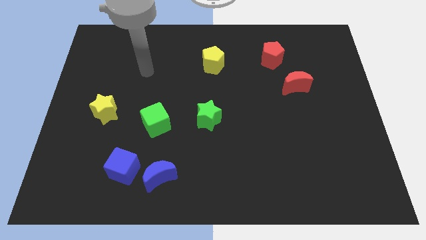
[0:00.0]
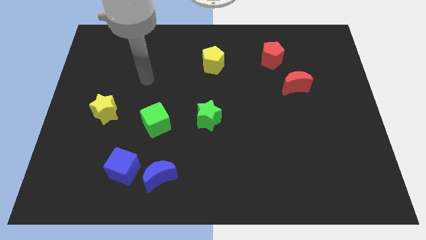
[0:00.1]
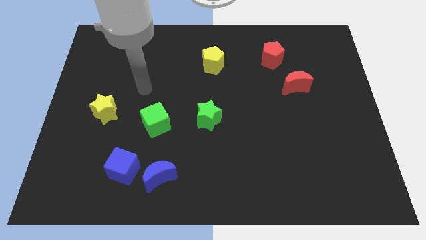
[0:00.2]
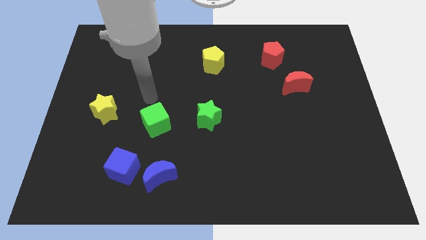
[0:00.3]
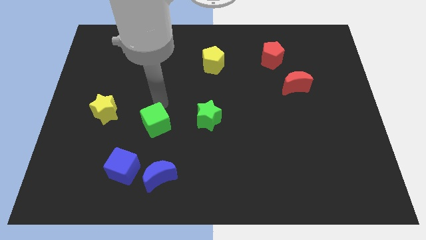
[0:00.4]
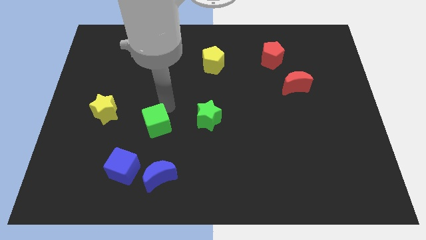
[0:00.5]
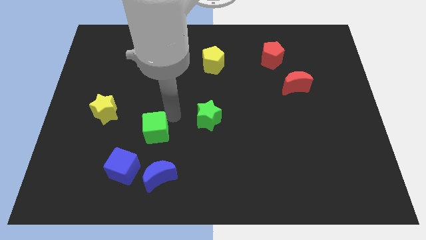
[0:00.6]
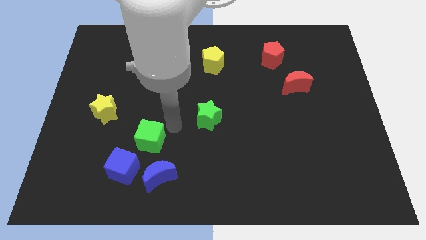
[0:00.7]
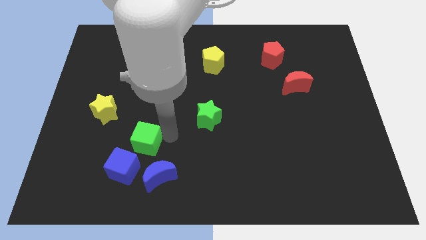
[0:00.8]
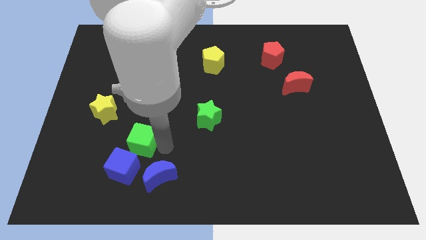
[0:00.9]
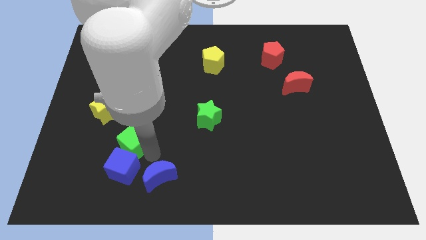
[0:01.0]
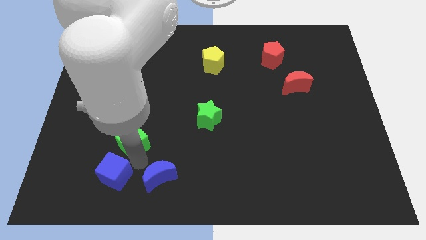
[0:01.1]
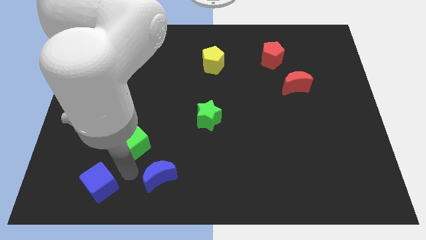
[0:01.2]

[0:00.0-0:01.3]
move the blue moon away from the blue cube

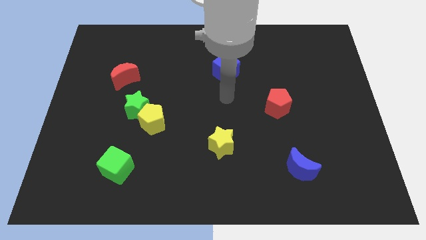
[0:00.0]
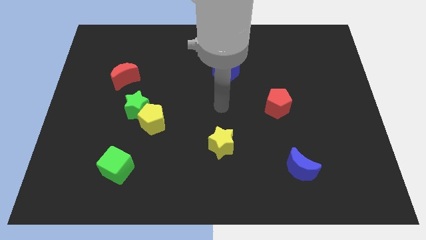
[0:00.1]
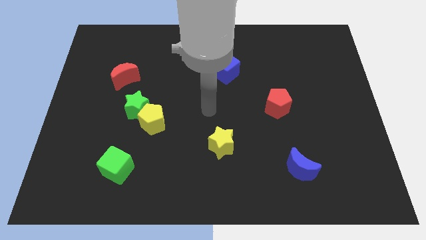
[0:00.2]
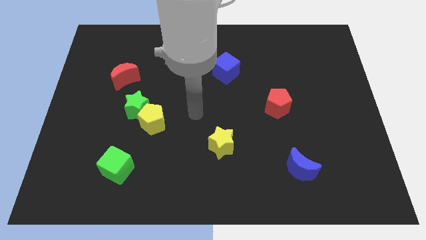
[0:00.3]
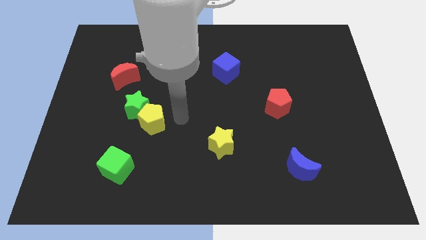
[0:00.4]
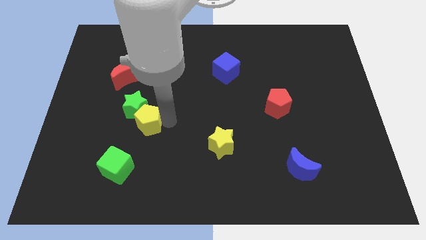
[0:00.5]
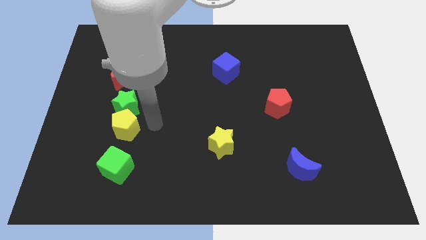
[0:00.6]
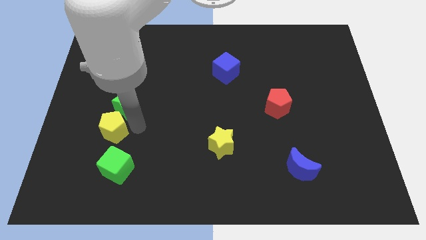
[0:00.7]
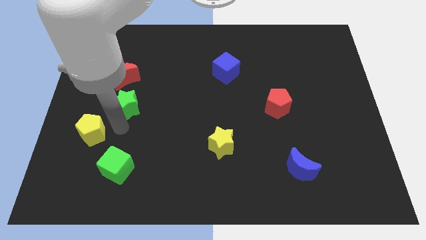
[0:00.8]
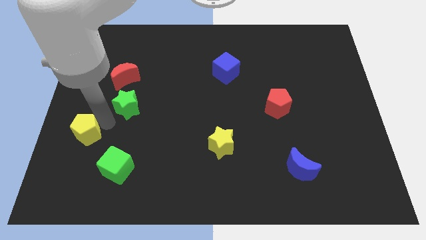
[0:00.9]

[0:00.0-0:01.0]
move the green star away from the yellow pentagon

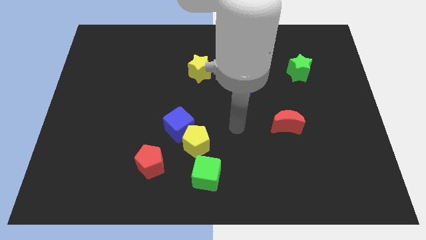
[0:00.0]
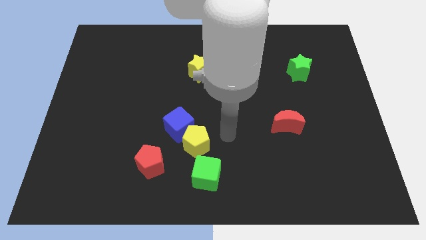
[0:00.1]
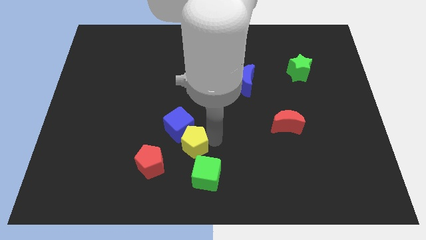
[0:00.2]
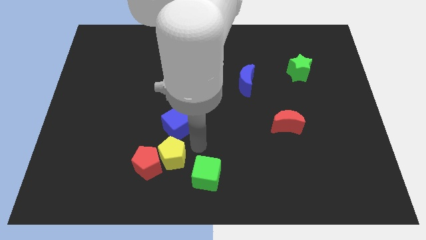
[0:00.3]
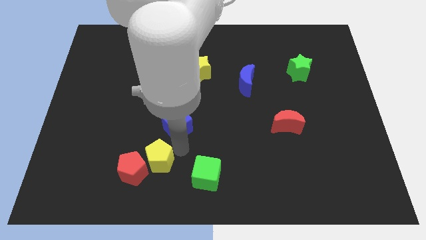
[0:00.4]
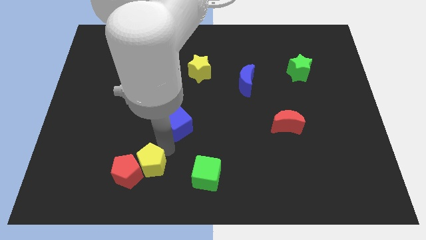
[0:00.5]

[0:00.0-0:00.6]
move the blue cube away from the yellow pentagon

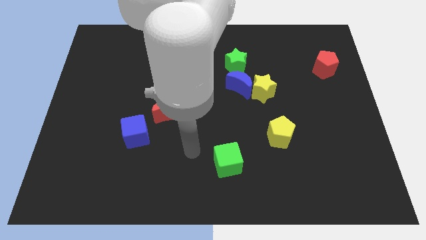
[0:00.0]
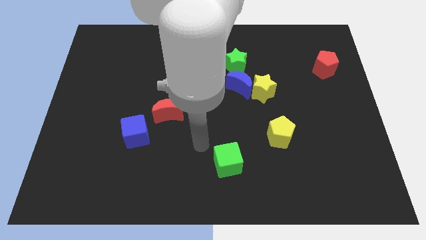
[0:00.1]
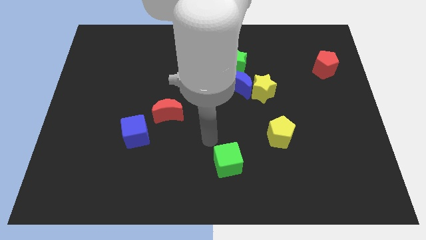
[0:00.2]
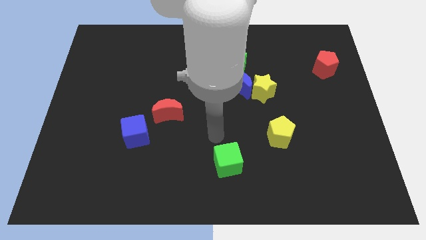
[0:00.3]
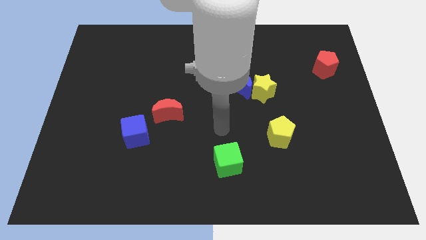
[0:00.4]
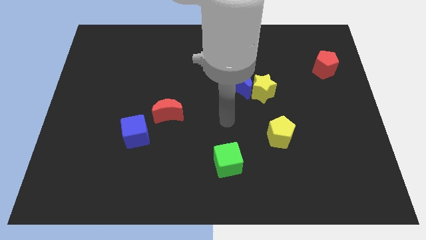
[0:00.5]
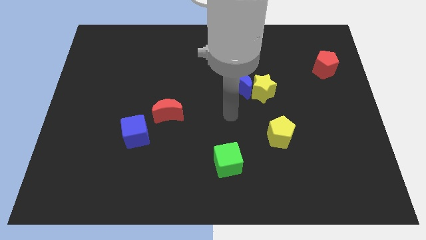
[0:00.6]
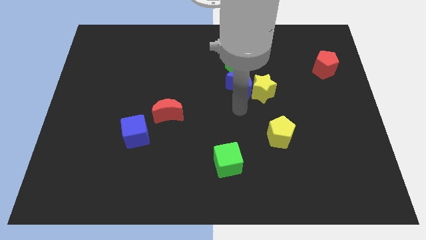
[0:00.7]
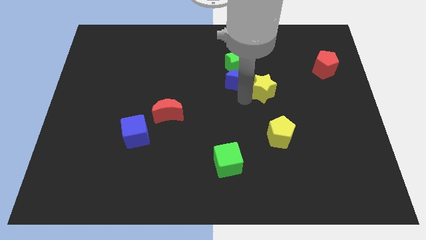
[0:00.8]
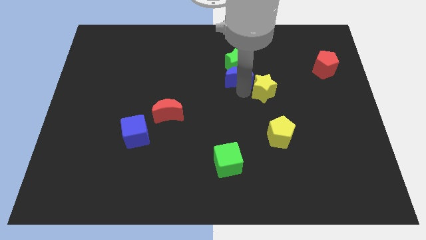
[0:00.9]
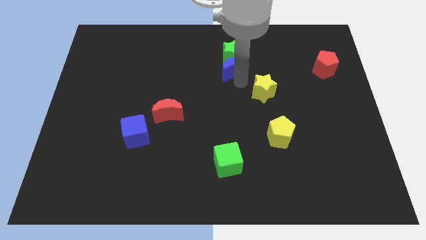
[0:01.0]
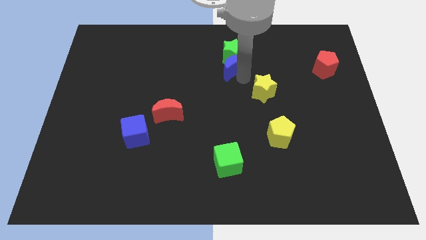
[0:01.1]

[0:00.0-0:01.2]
pull the yellow star apart from the blue moon

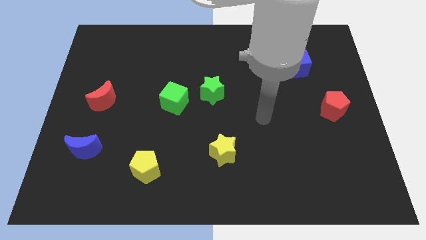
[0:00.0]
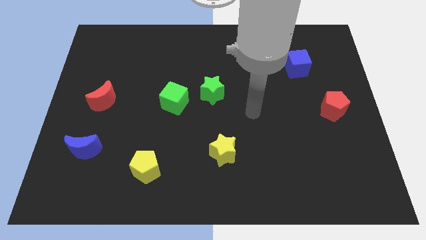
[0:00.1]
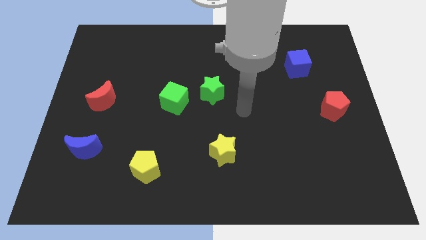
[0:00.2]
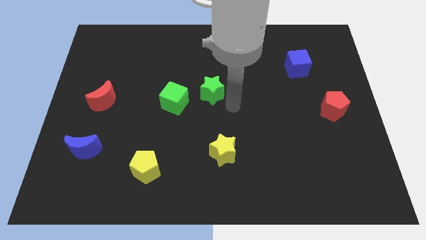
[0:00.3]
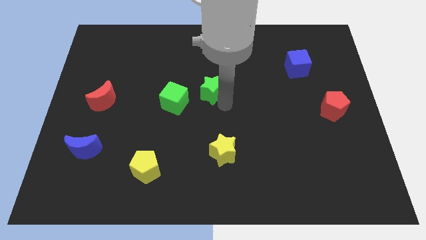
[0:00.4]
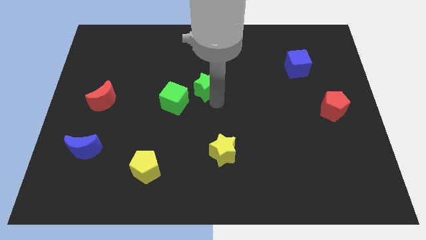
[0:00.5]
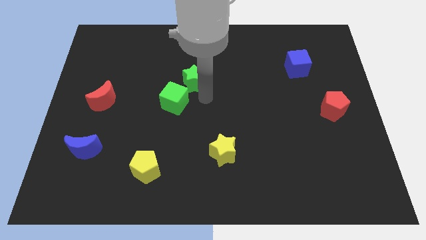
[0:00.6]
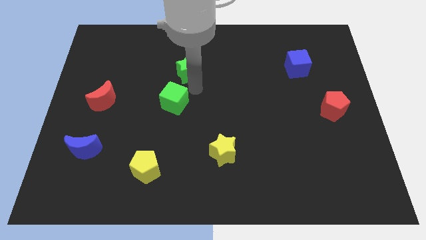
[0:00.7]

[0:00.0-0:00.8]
pull the green cube apart from the green star

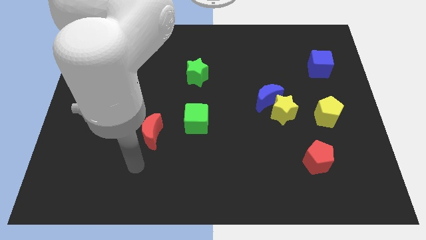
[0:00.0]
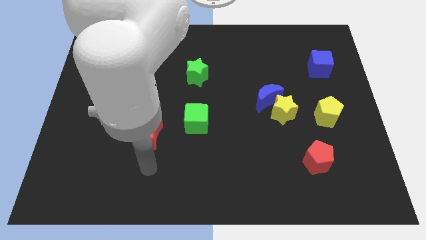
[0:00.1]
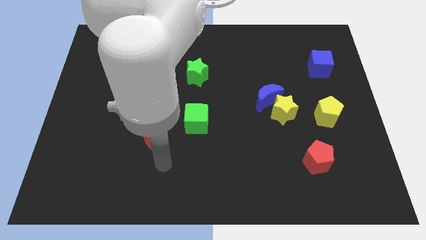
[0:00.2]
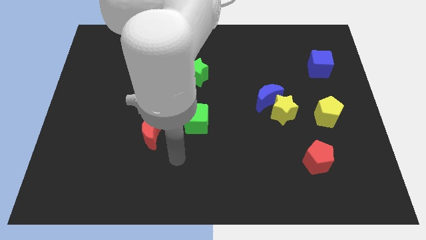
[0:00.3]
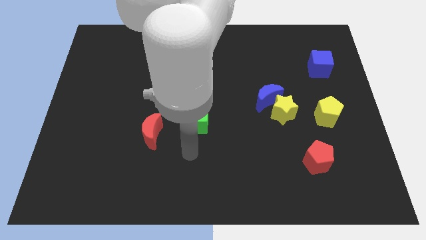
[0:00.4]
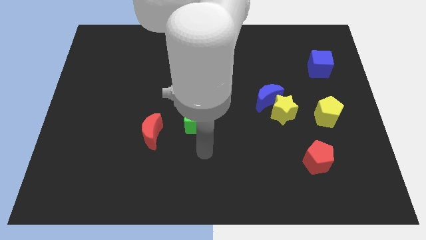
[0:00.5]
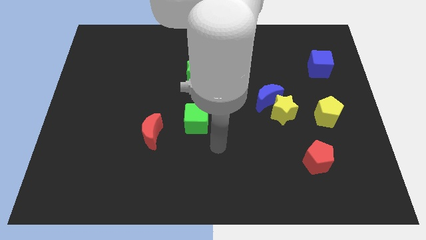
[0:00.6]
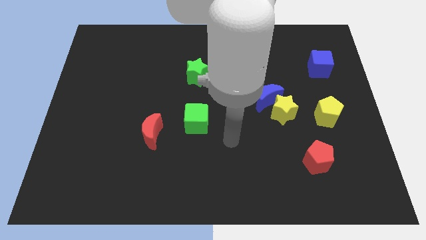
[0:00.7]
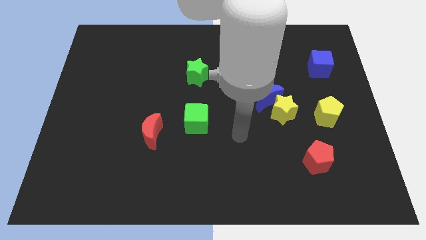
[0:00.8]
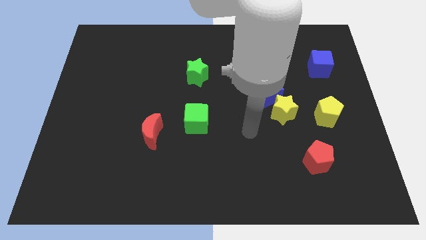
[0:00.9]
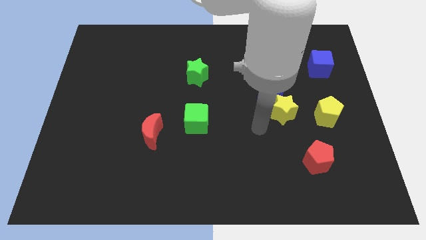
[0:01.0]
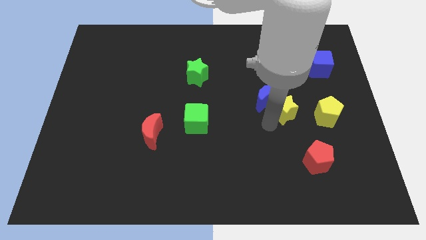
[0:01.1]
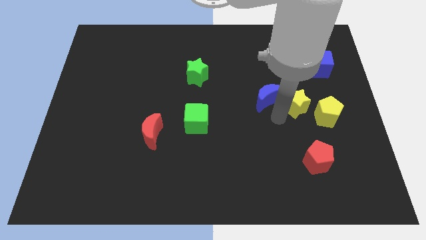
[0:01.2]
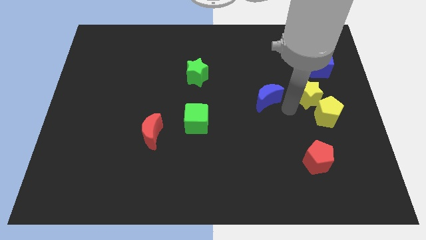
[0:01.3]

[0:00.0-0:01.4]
move the blue moon away from the yellow star

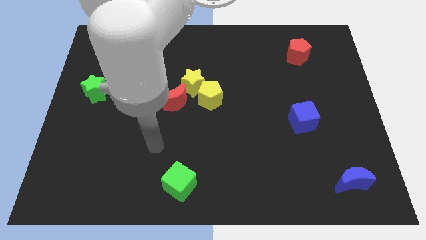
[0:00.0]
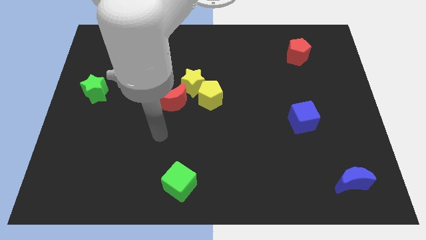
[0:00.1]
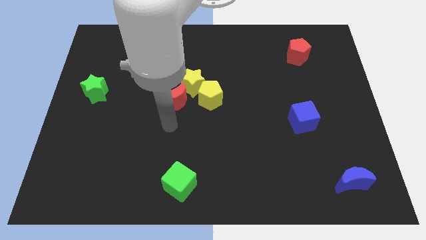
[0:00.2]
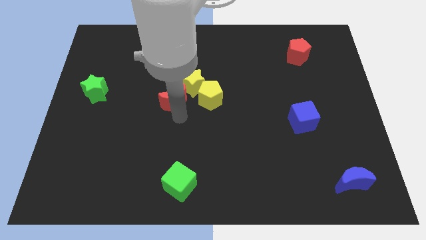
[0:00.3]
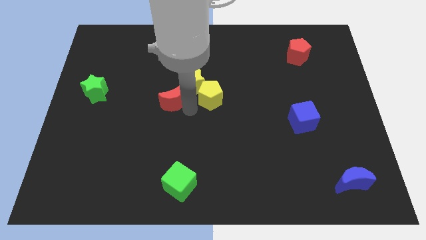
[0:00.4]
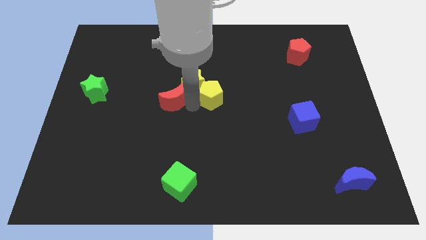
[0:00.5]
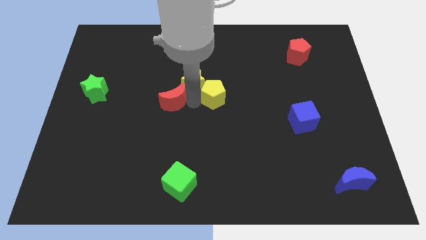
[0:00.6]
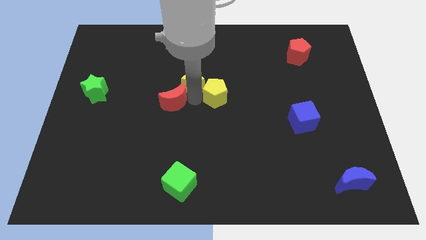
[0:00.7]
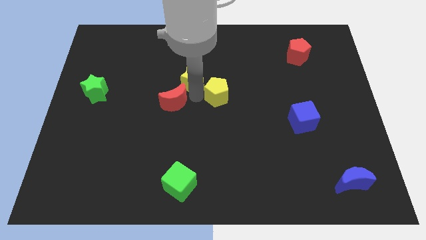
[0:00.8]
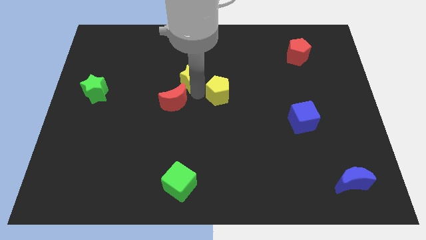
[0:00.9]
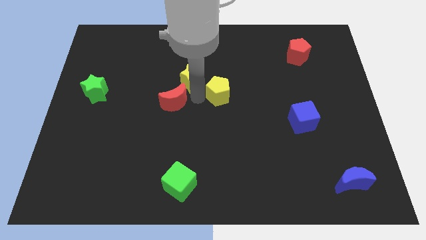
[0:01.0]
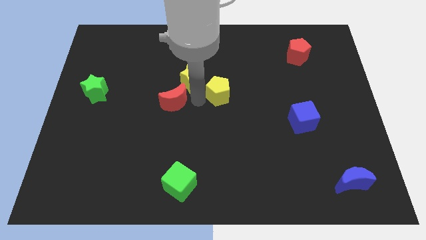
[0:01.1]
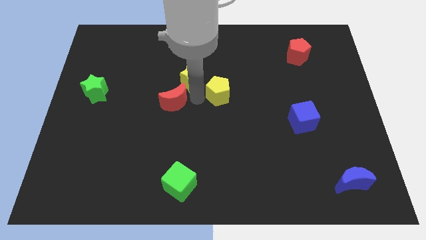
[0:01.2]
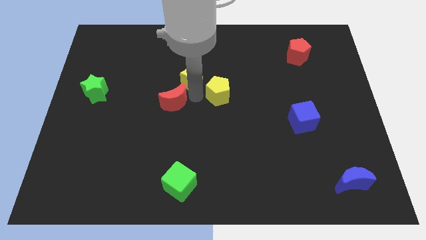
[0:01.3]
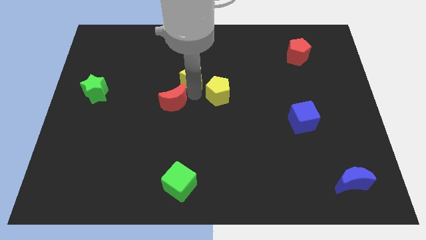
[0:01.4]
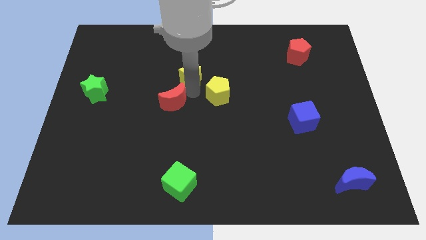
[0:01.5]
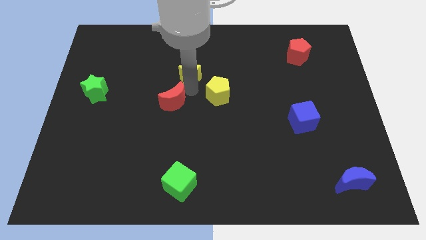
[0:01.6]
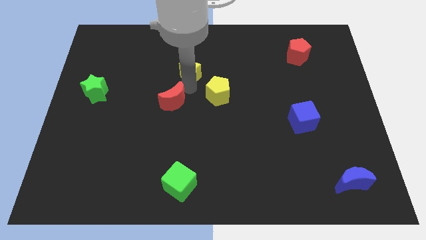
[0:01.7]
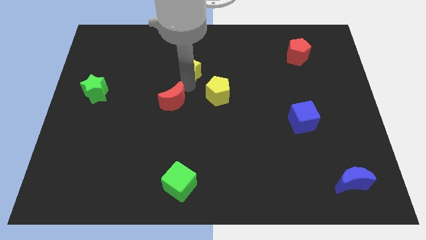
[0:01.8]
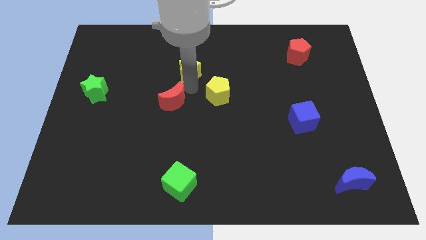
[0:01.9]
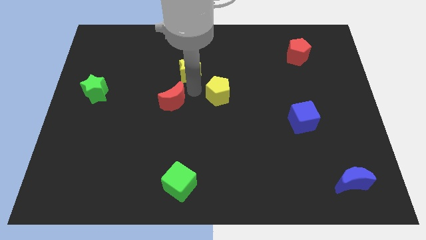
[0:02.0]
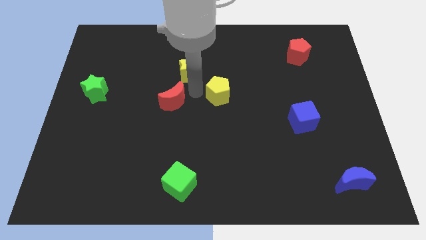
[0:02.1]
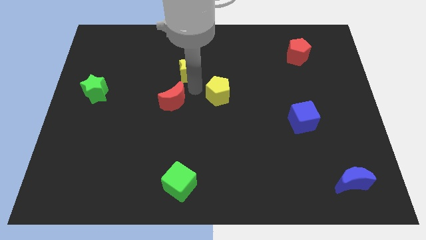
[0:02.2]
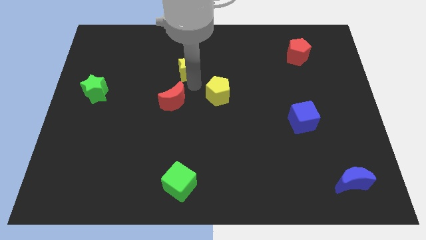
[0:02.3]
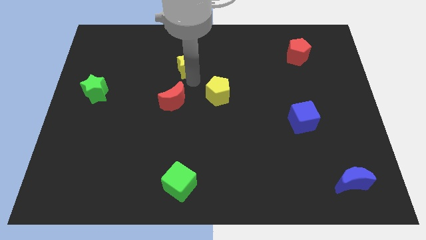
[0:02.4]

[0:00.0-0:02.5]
move the yellow star away from the yellow pentagon and red moon

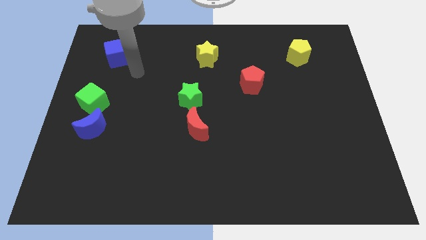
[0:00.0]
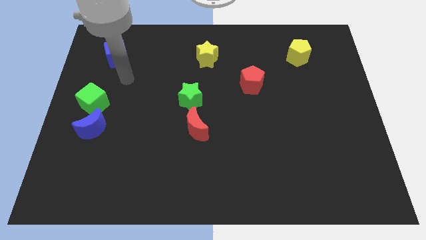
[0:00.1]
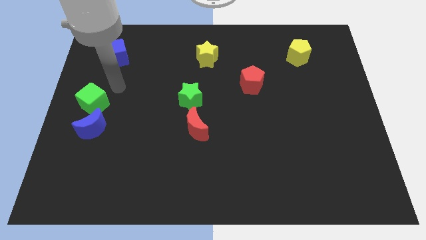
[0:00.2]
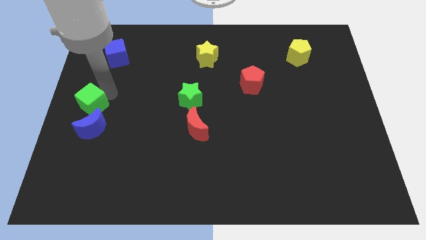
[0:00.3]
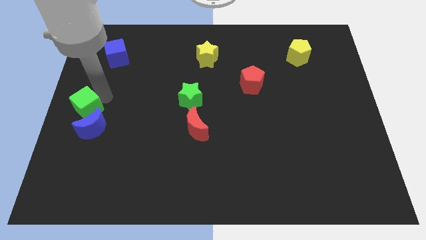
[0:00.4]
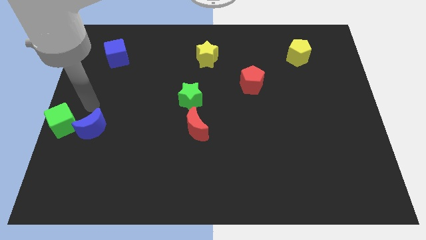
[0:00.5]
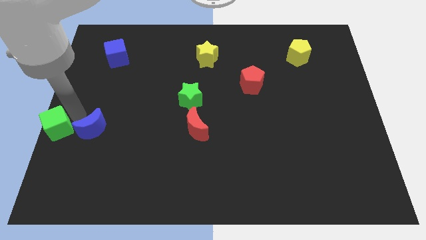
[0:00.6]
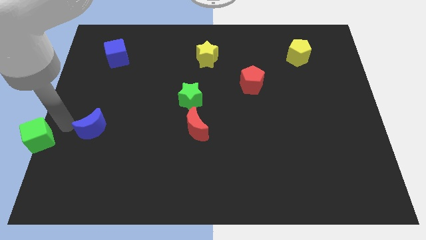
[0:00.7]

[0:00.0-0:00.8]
pull the blue moon apart from the green cube
